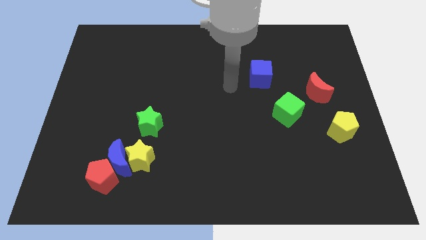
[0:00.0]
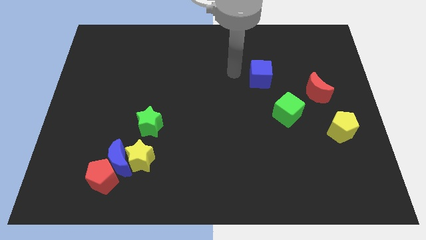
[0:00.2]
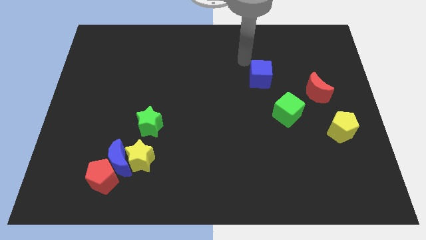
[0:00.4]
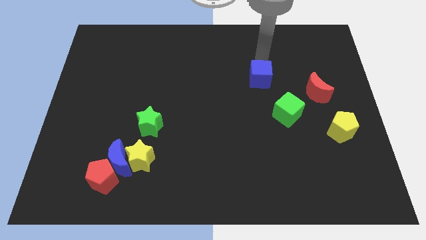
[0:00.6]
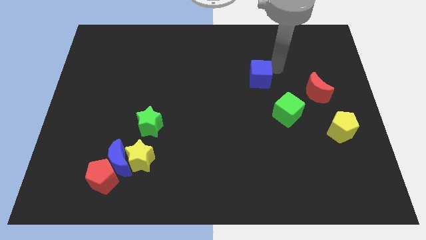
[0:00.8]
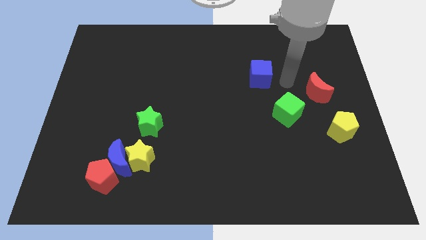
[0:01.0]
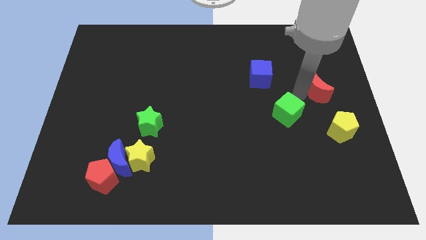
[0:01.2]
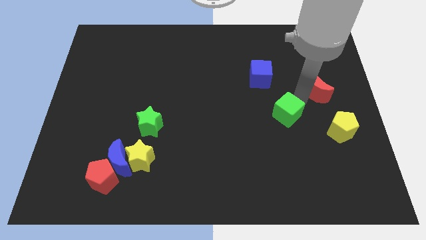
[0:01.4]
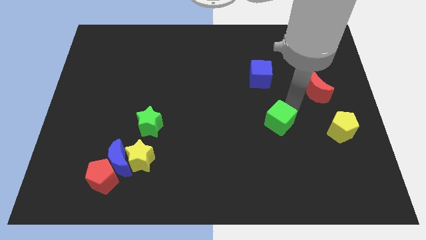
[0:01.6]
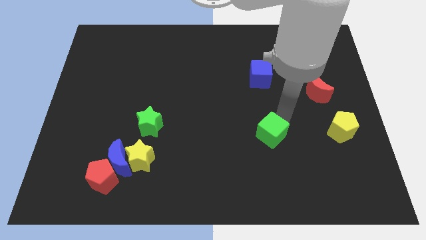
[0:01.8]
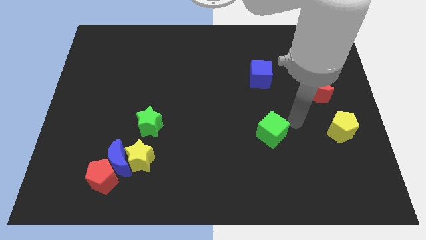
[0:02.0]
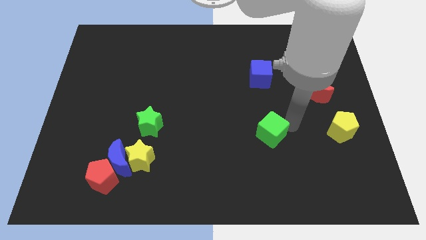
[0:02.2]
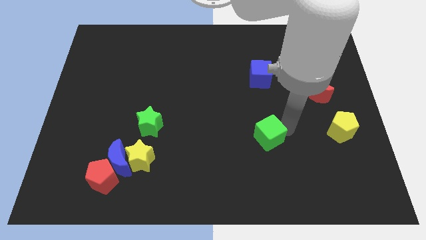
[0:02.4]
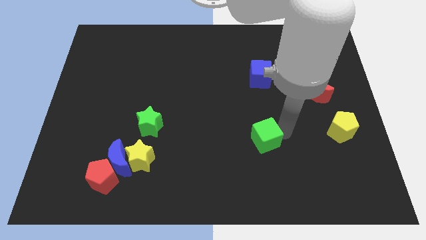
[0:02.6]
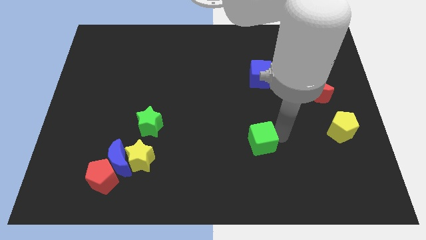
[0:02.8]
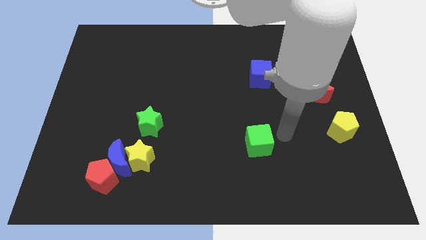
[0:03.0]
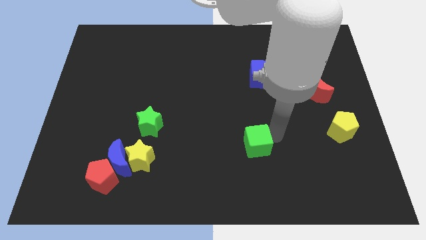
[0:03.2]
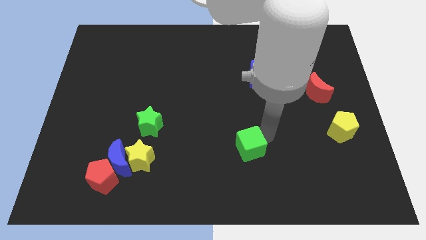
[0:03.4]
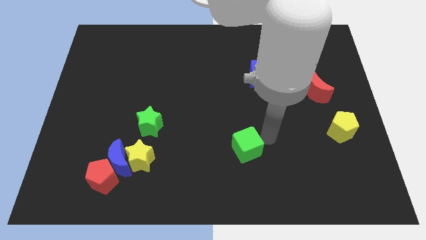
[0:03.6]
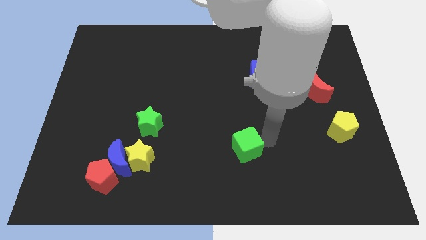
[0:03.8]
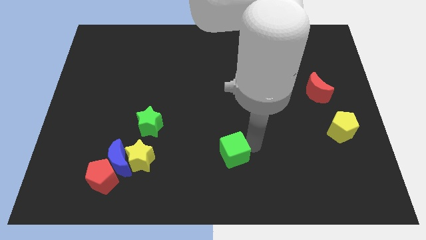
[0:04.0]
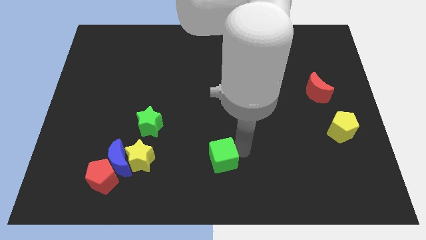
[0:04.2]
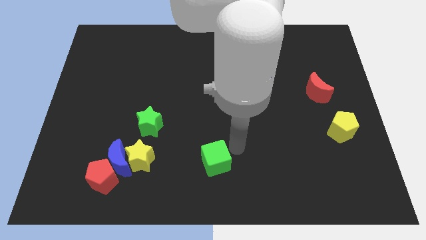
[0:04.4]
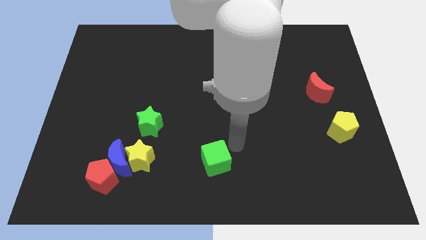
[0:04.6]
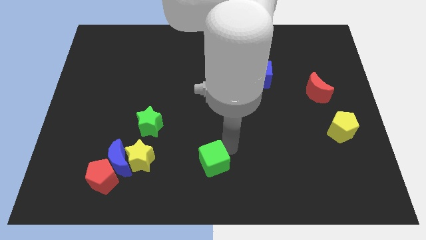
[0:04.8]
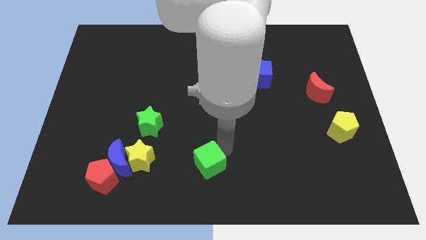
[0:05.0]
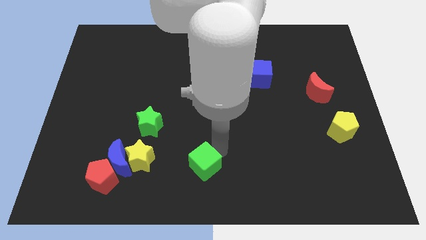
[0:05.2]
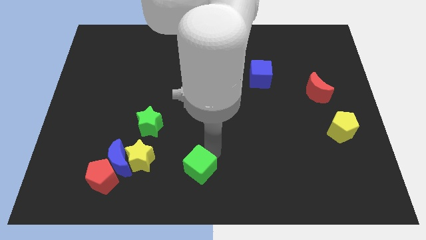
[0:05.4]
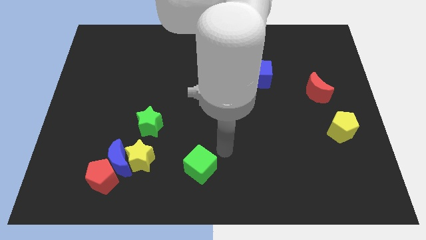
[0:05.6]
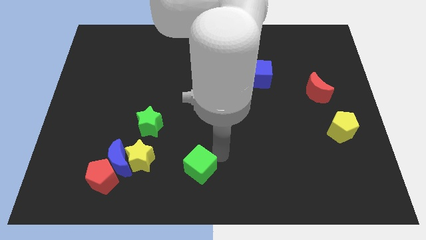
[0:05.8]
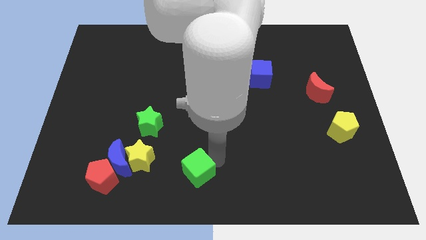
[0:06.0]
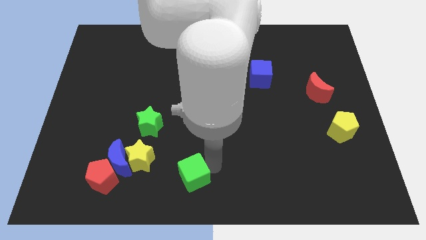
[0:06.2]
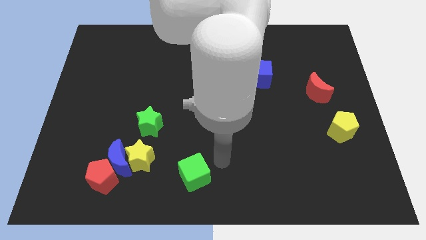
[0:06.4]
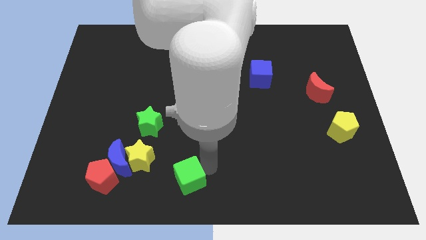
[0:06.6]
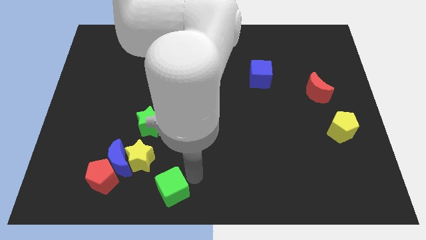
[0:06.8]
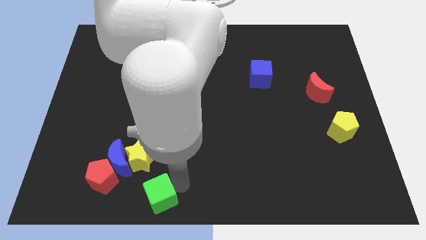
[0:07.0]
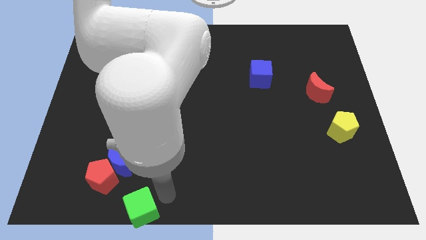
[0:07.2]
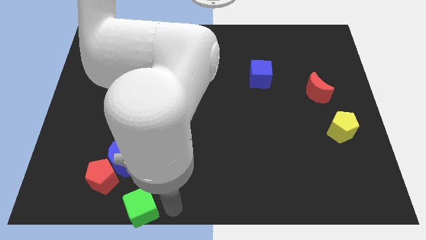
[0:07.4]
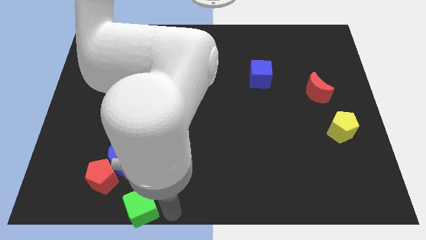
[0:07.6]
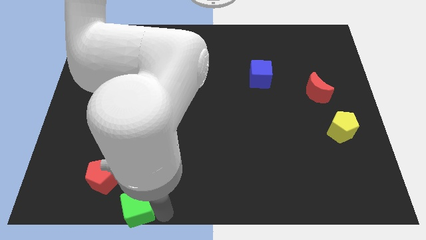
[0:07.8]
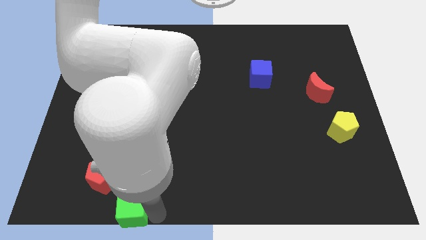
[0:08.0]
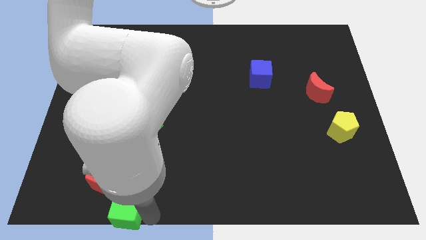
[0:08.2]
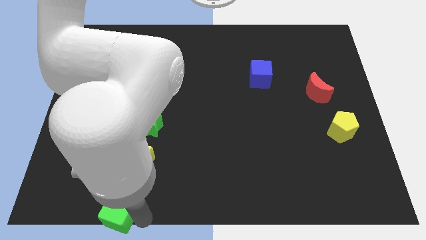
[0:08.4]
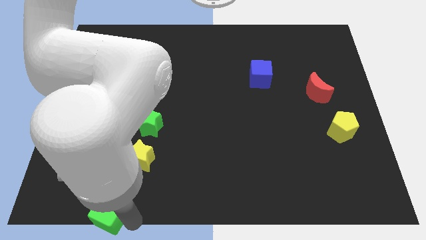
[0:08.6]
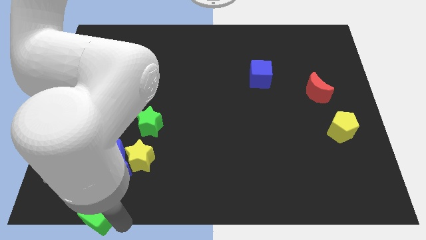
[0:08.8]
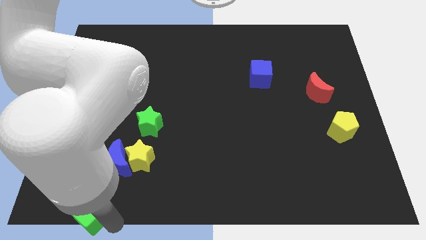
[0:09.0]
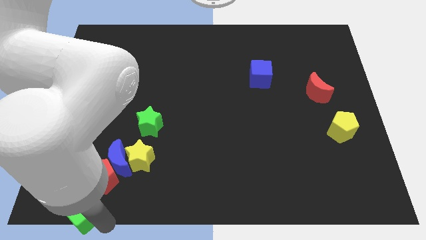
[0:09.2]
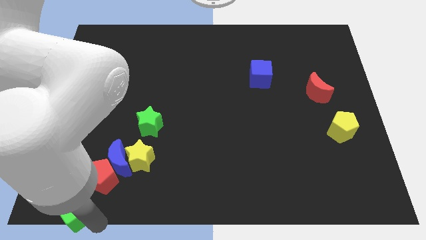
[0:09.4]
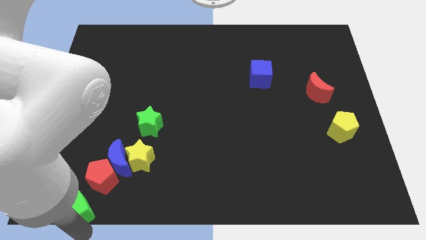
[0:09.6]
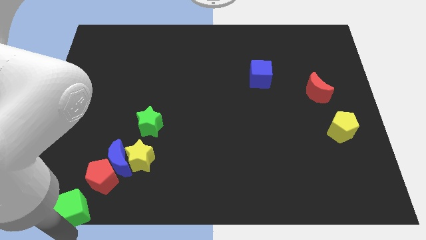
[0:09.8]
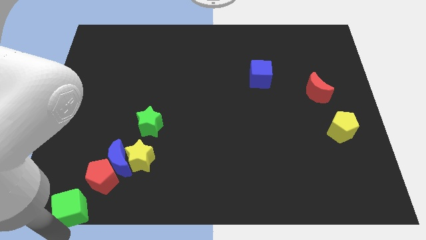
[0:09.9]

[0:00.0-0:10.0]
slide the green cube to the bottom left side of the blue moon

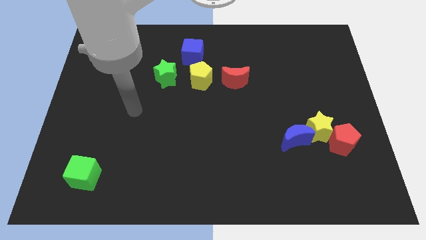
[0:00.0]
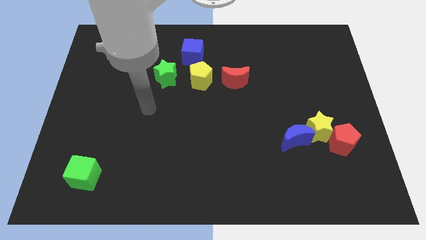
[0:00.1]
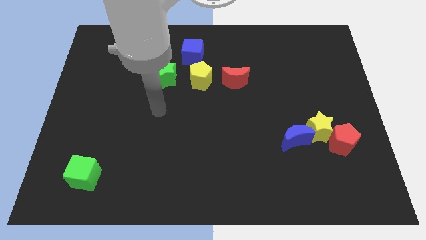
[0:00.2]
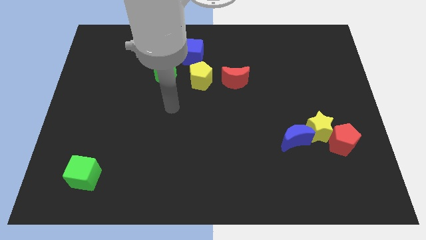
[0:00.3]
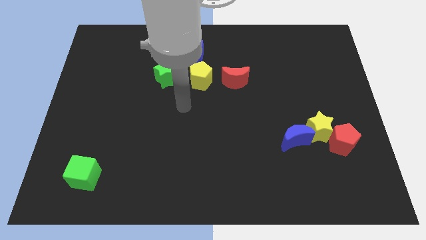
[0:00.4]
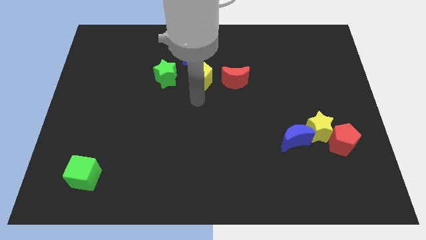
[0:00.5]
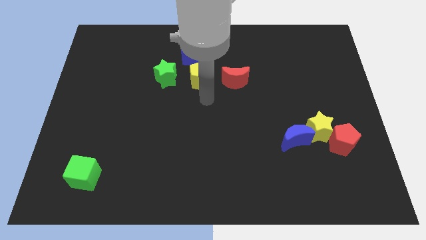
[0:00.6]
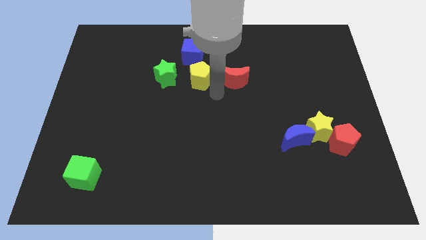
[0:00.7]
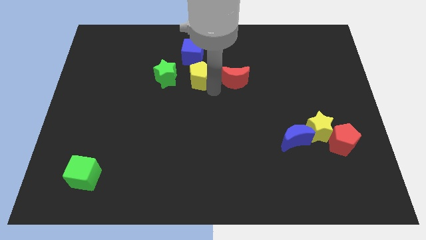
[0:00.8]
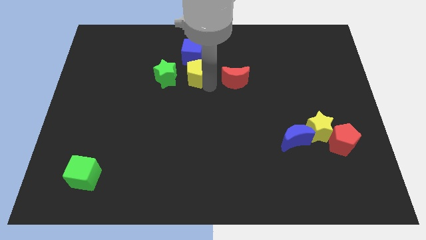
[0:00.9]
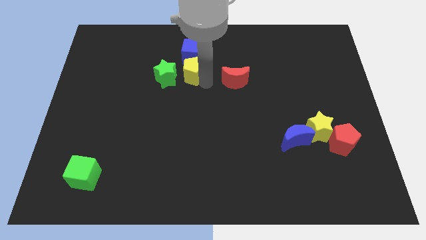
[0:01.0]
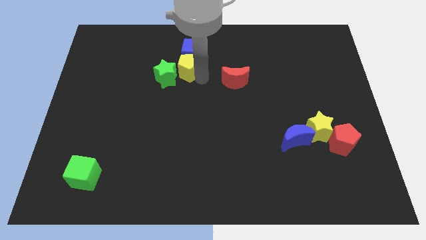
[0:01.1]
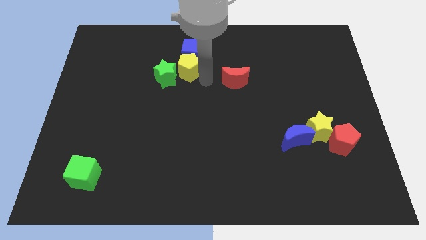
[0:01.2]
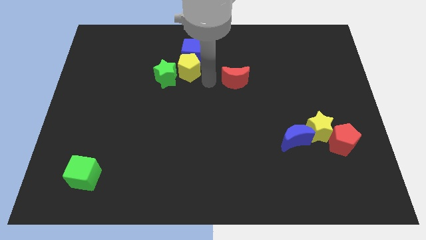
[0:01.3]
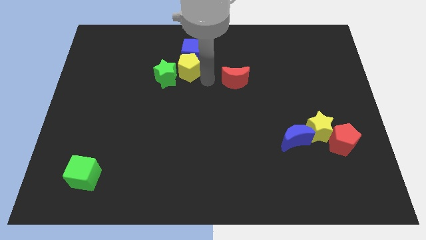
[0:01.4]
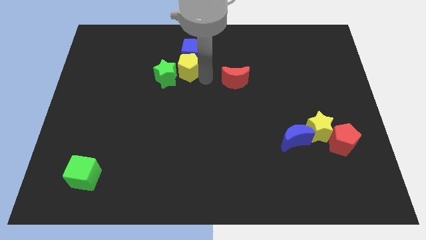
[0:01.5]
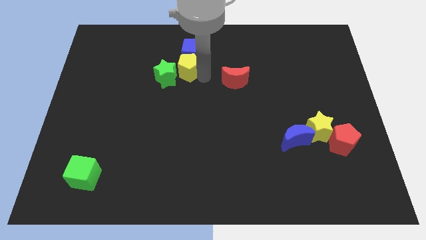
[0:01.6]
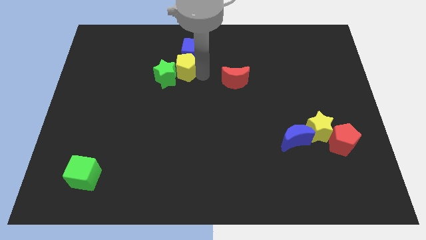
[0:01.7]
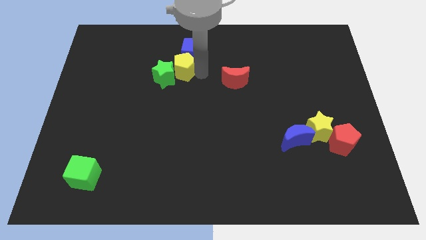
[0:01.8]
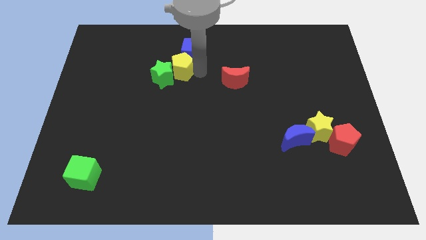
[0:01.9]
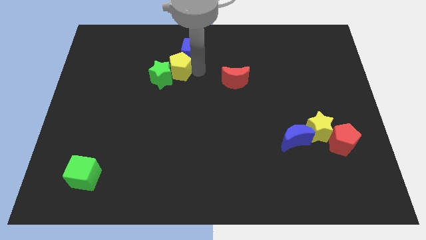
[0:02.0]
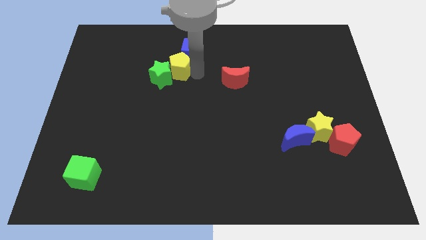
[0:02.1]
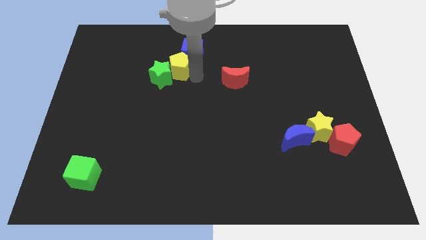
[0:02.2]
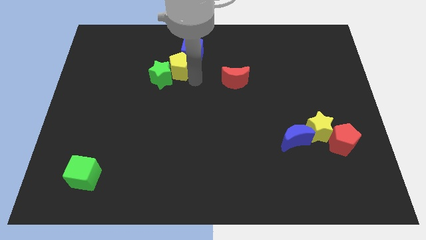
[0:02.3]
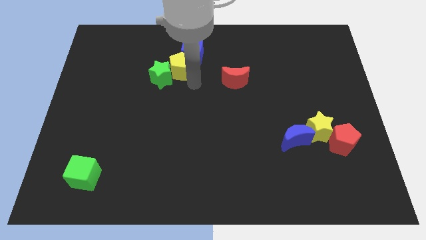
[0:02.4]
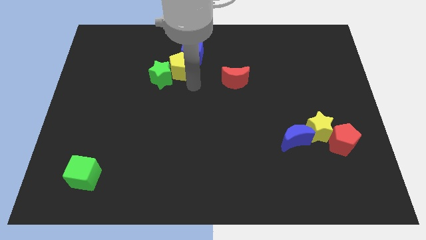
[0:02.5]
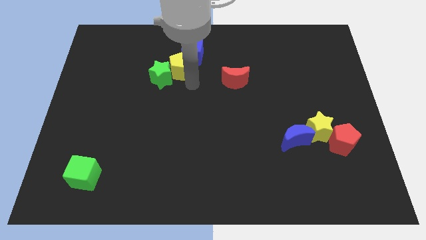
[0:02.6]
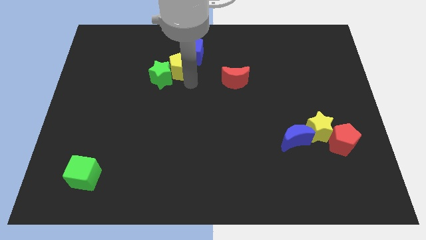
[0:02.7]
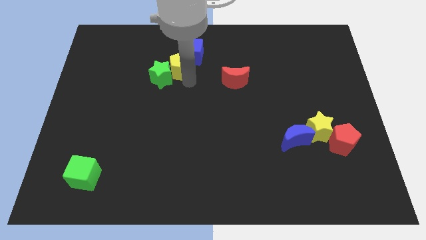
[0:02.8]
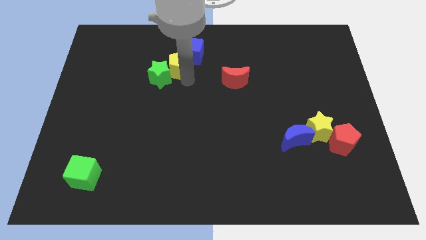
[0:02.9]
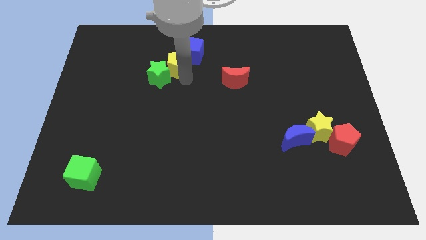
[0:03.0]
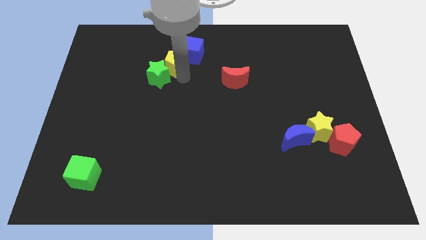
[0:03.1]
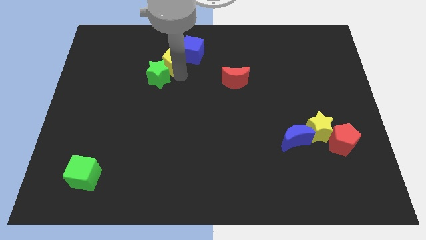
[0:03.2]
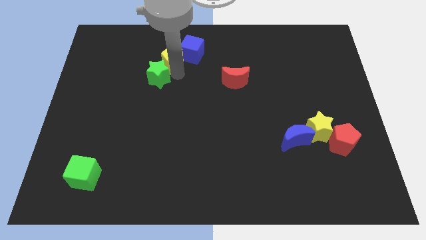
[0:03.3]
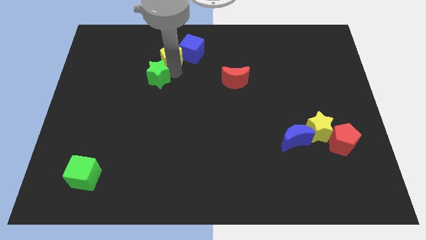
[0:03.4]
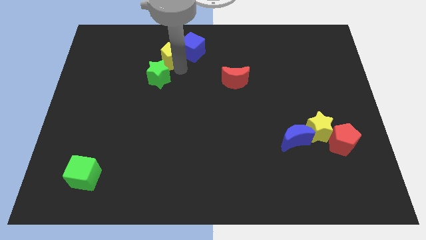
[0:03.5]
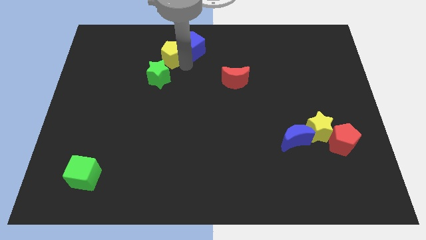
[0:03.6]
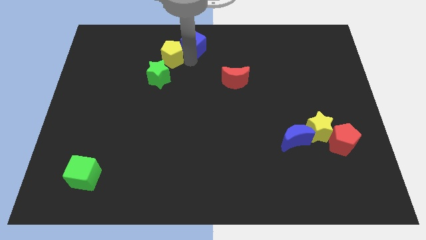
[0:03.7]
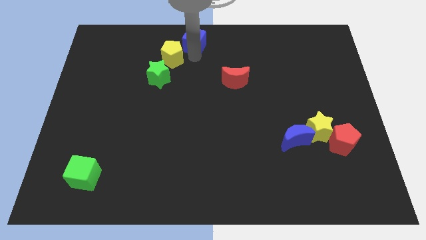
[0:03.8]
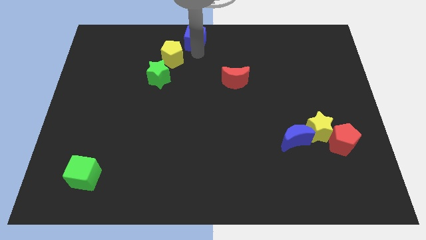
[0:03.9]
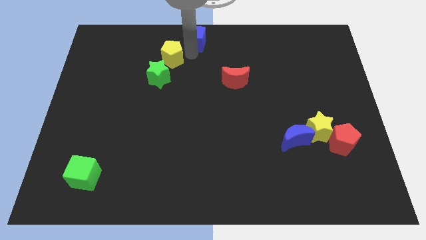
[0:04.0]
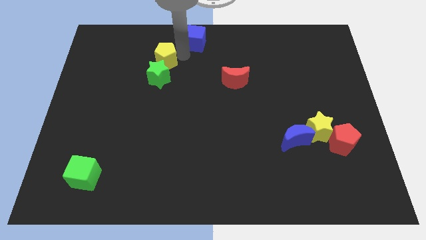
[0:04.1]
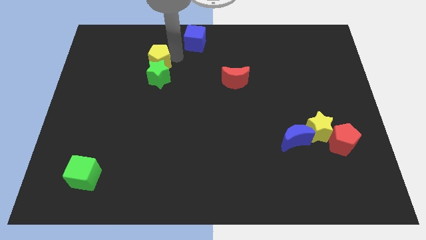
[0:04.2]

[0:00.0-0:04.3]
move the yellow pentagon to the top left of the green star
